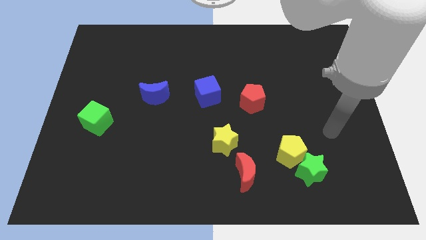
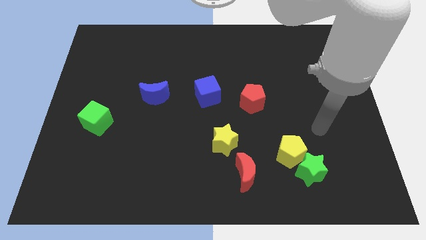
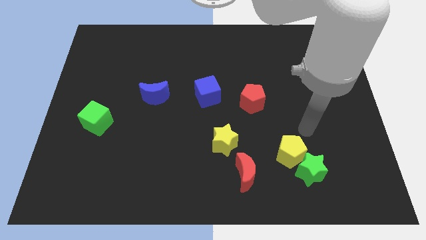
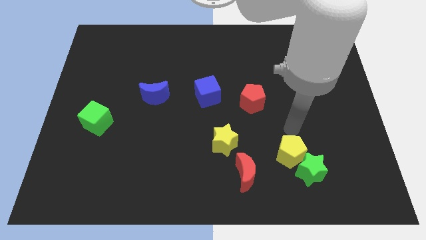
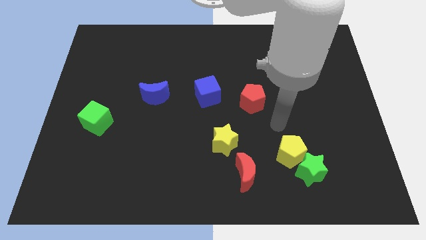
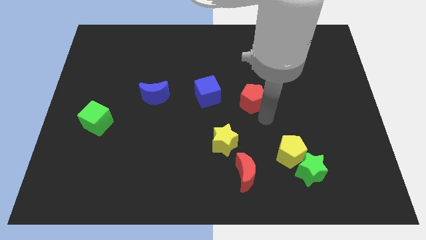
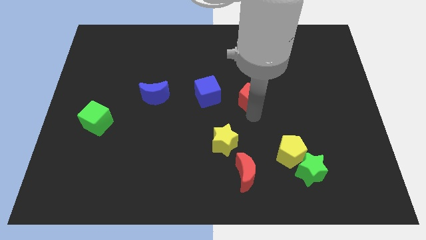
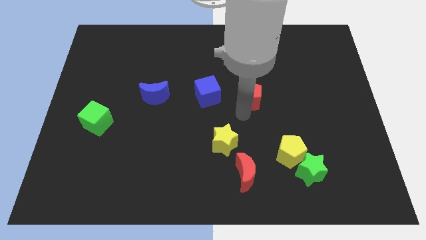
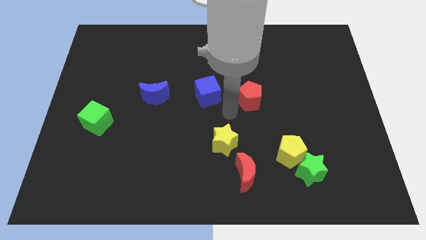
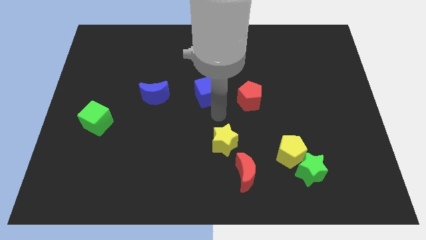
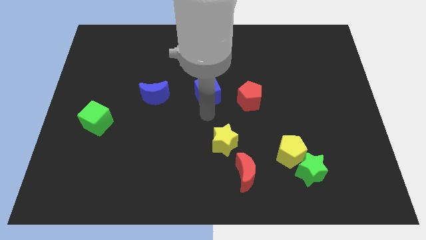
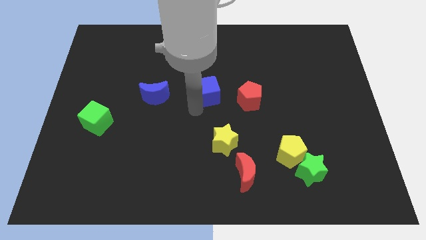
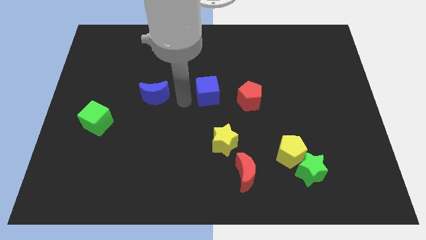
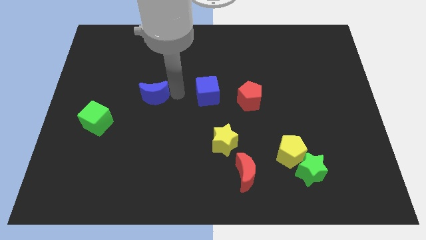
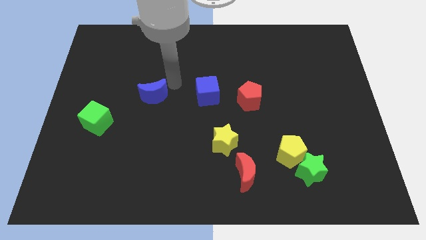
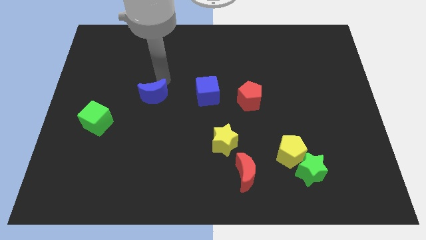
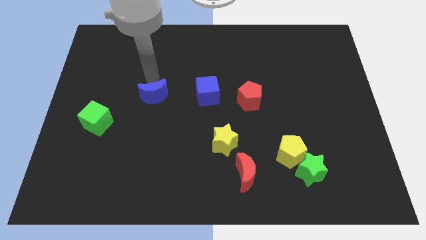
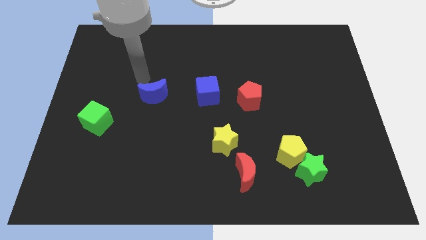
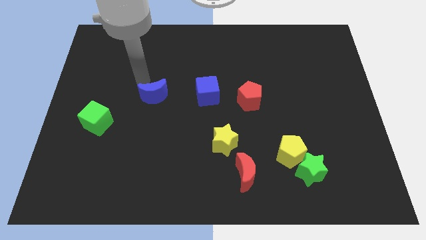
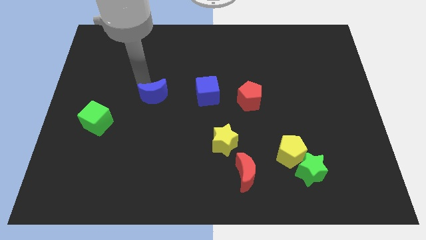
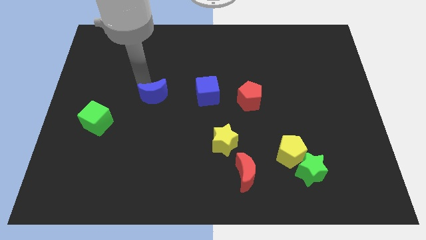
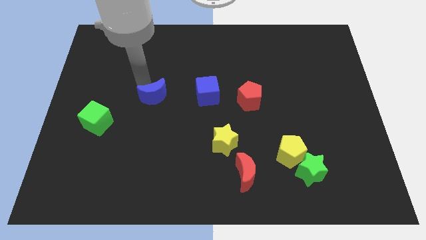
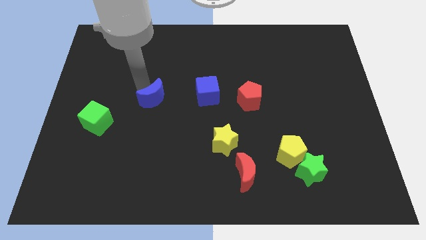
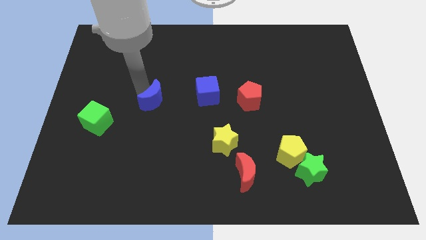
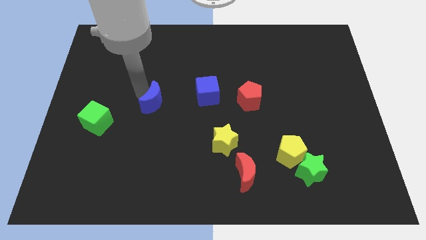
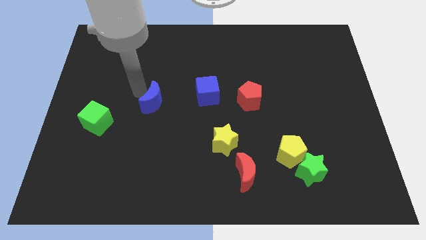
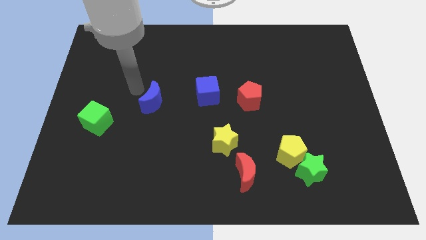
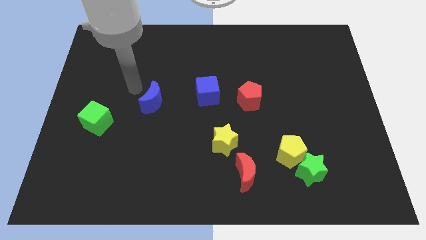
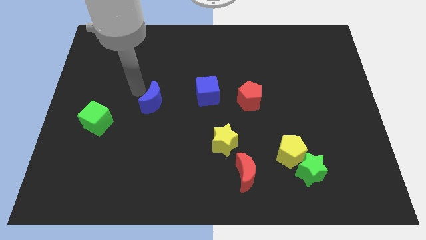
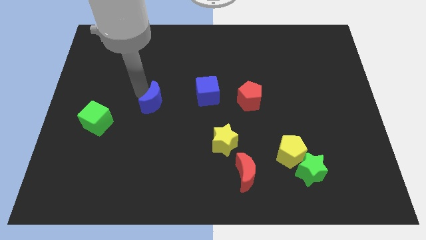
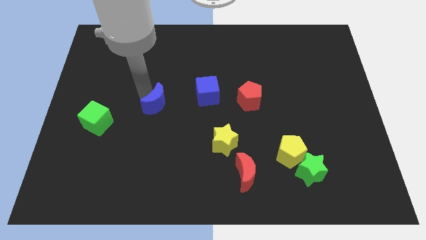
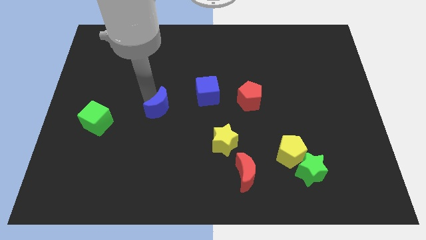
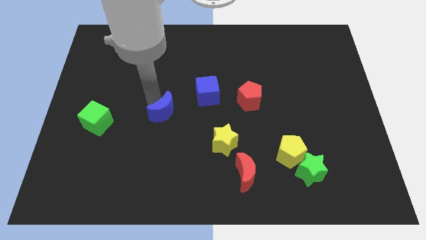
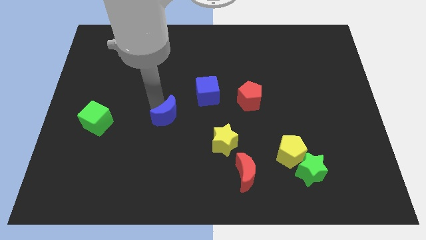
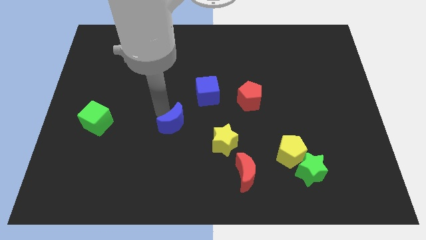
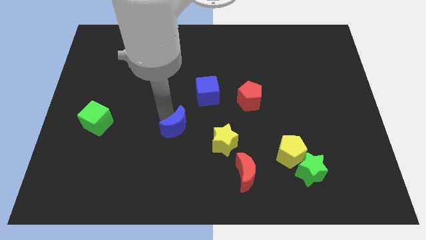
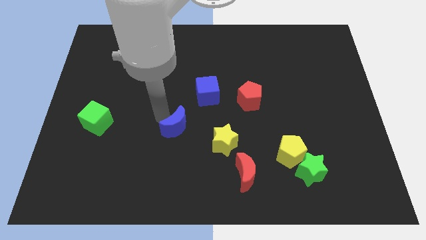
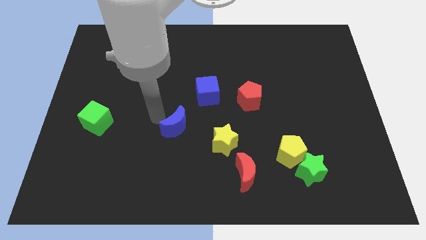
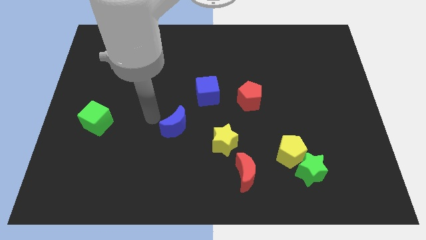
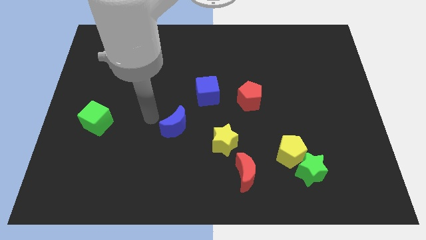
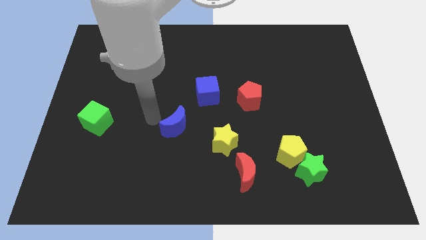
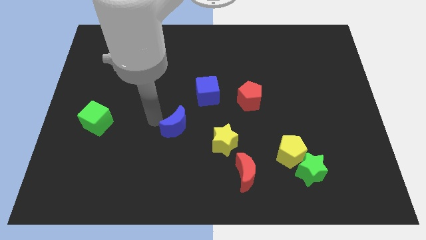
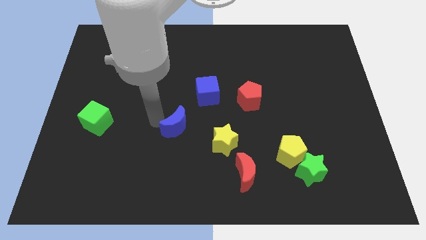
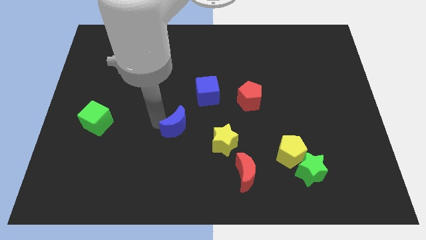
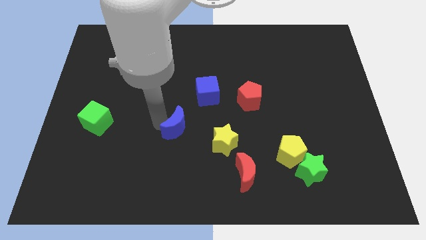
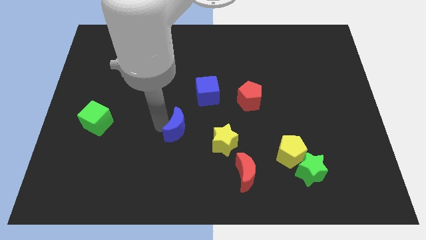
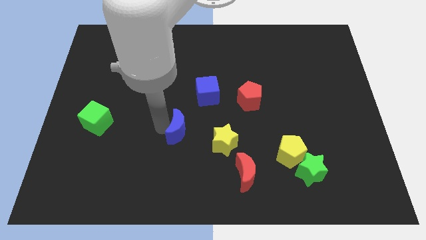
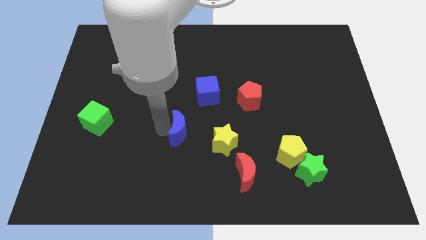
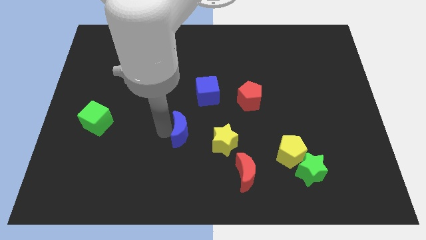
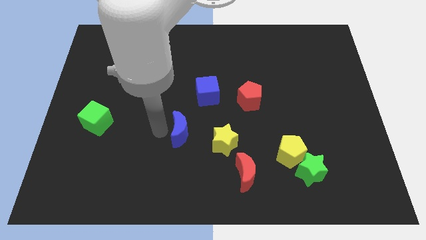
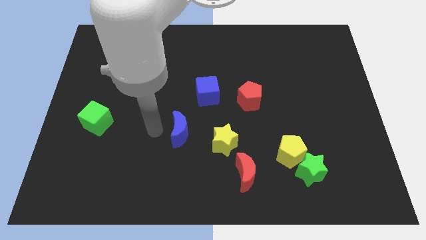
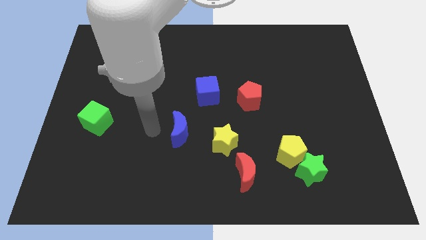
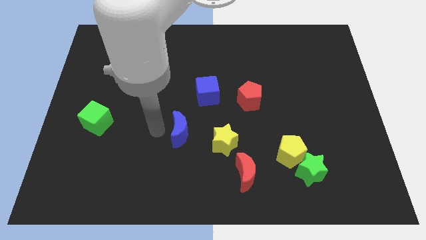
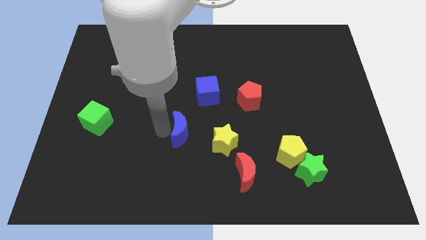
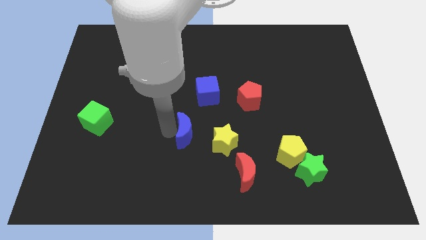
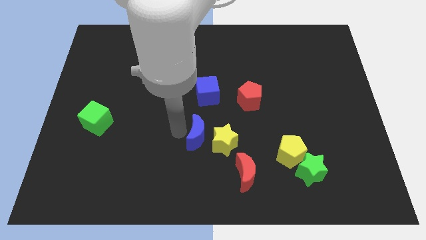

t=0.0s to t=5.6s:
move the blue moon close to the yellow star

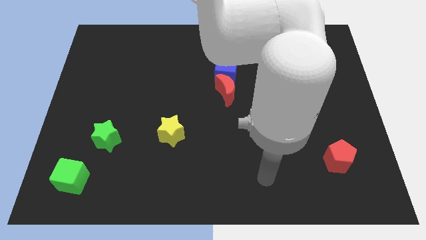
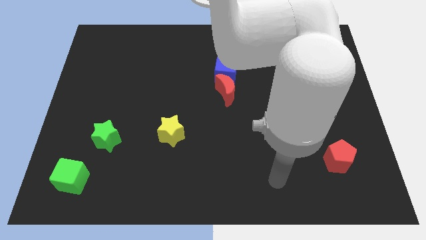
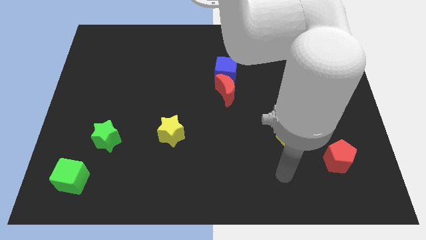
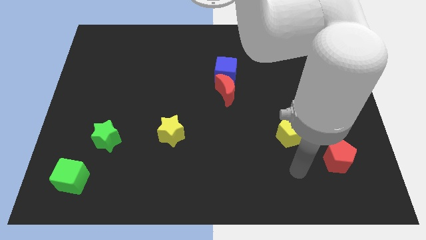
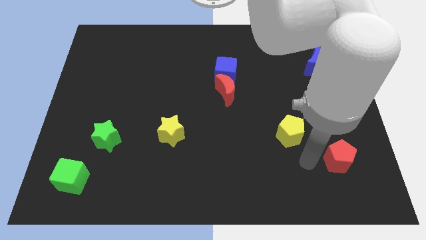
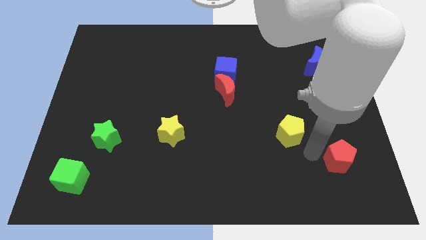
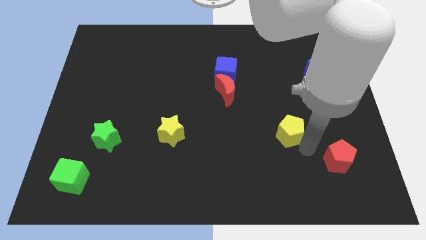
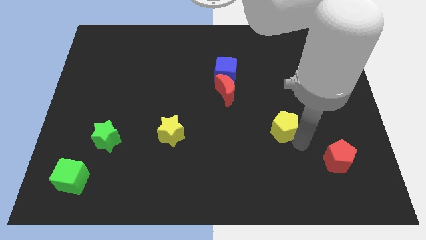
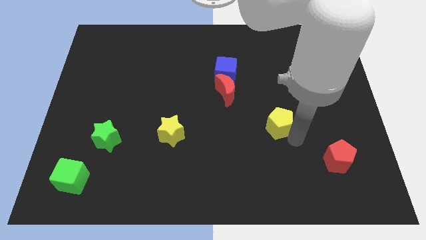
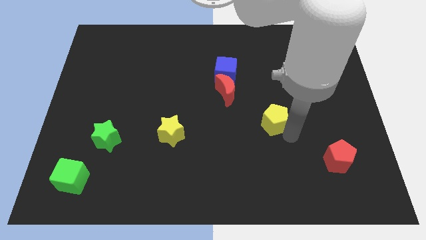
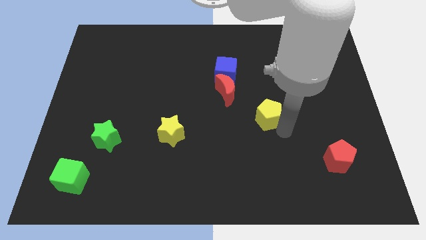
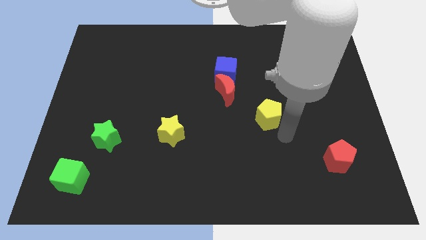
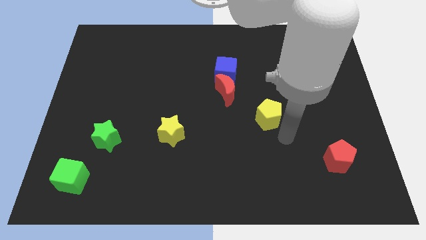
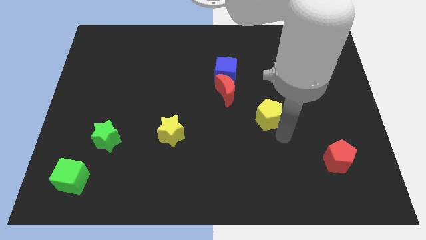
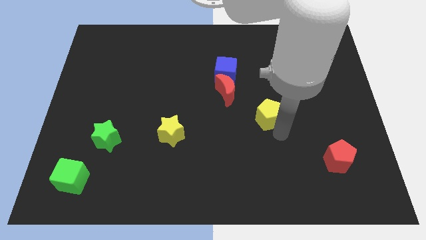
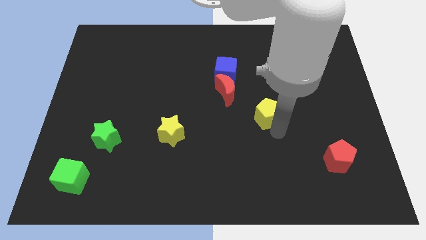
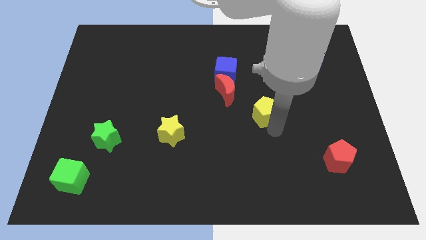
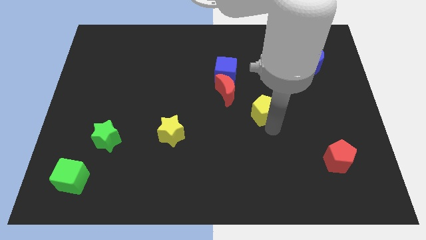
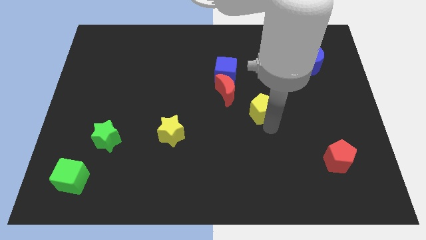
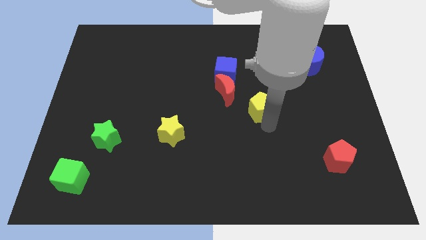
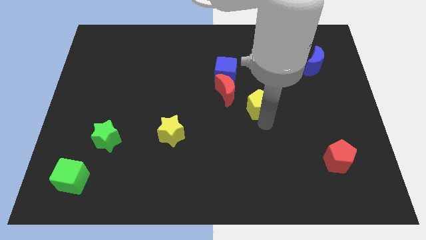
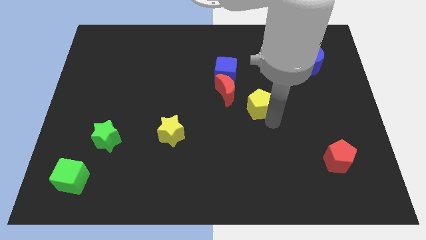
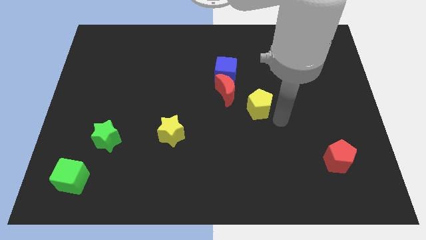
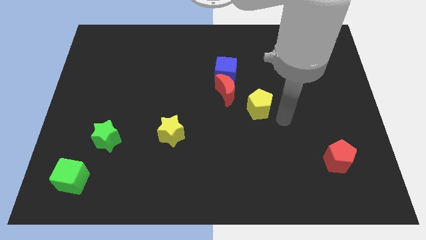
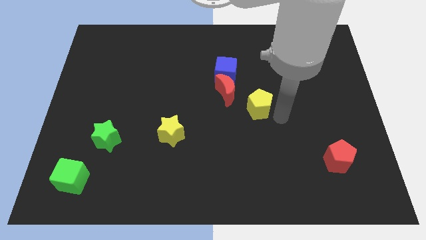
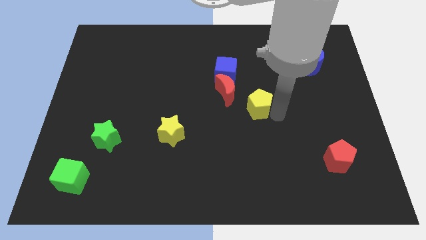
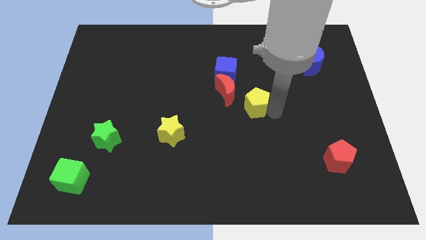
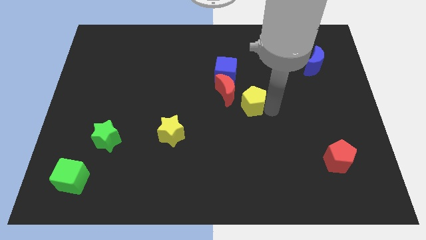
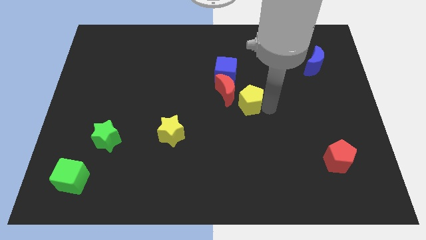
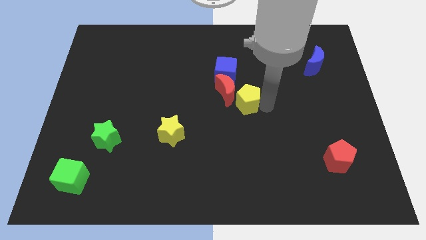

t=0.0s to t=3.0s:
slide the yellow pentagon to the red moon
